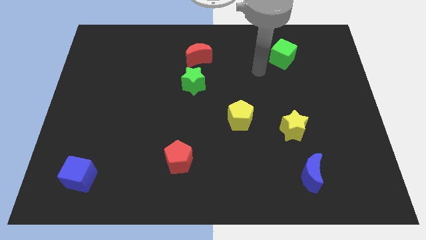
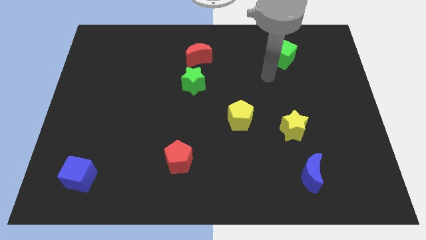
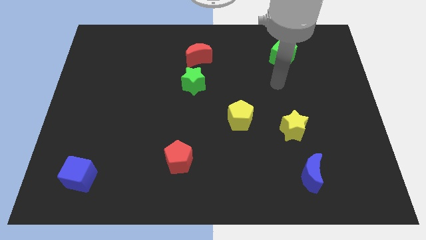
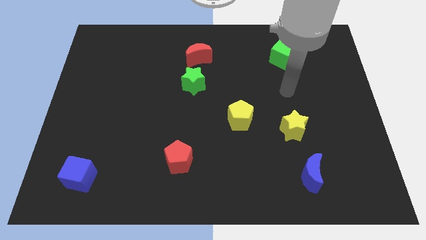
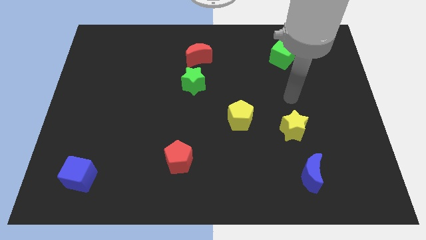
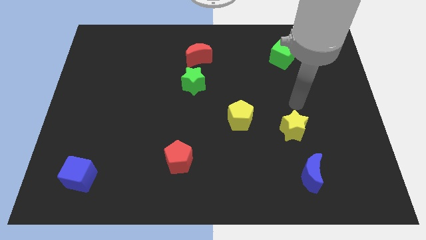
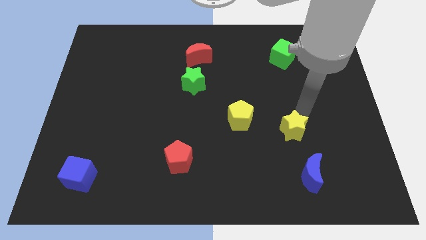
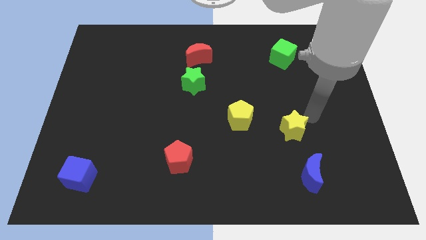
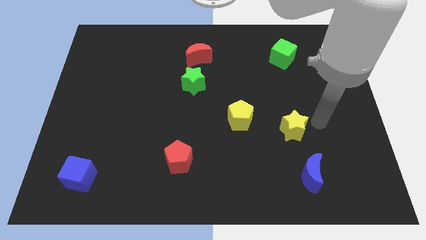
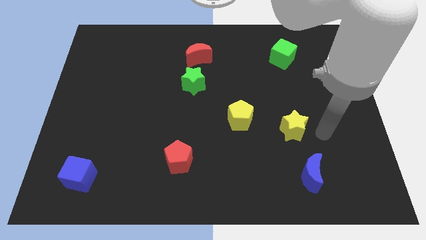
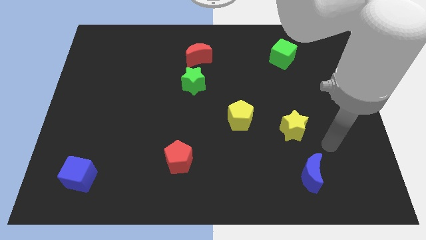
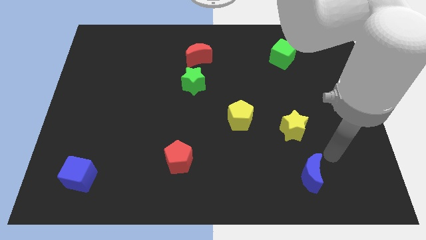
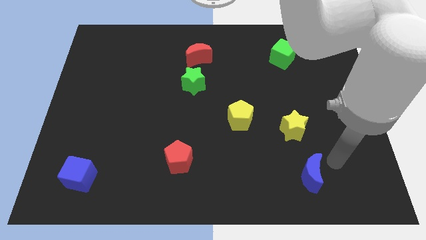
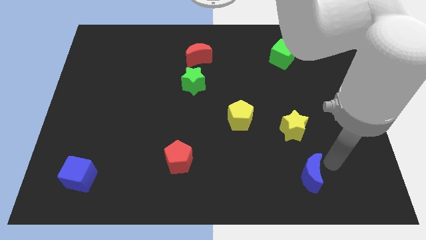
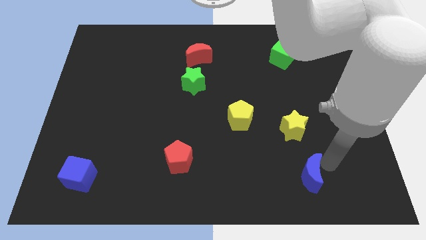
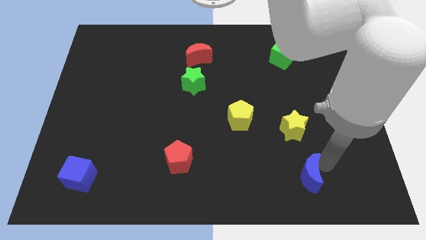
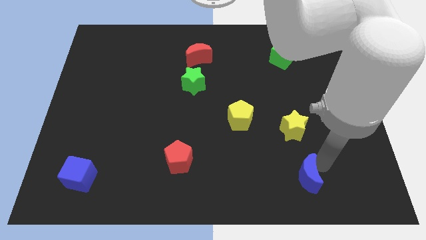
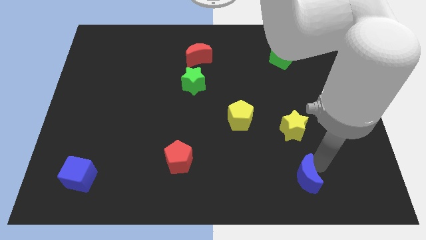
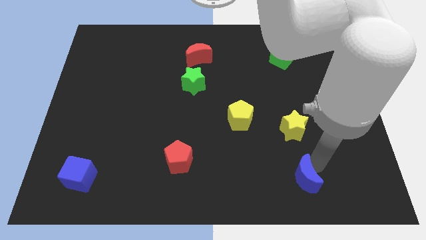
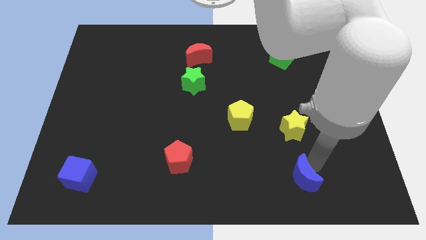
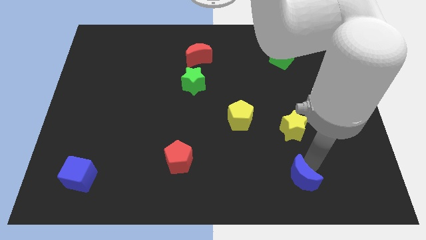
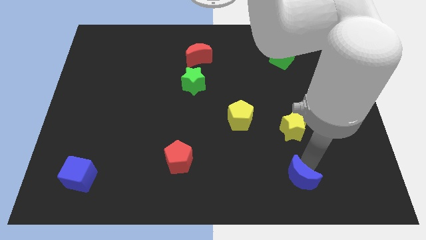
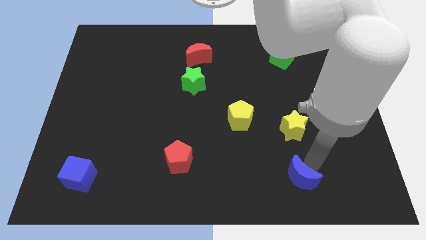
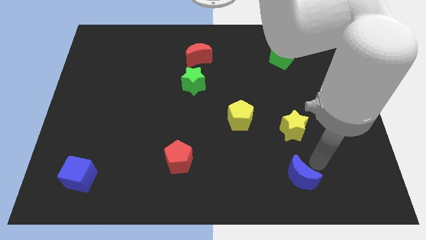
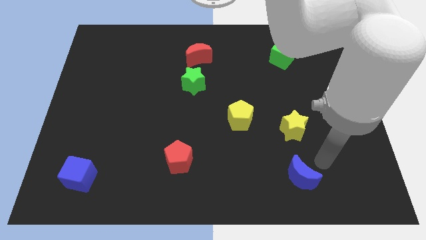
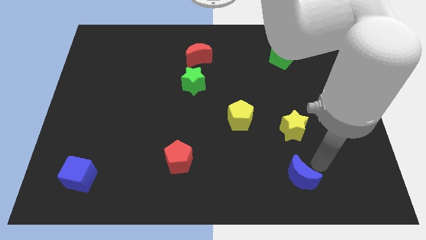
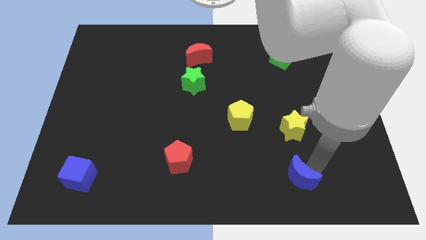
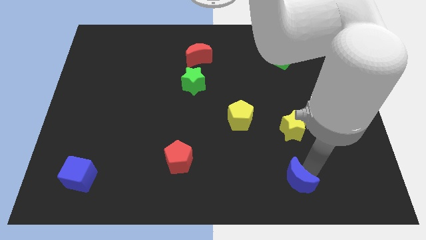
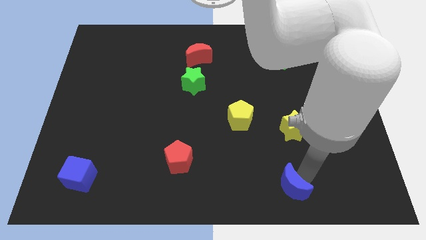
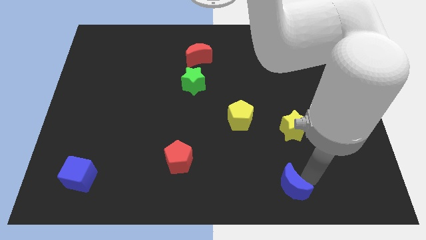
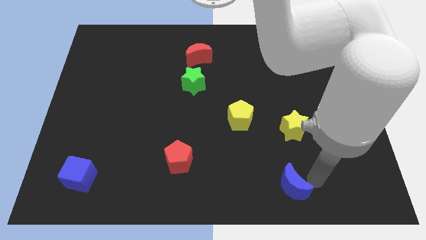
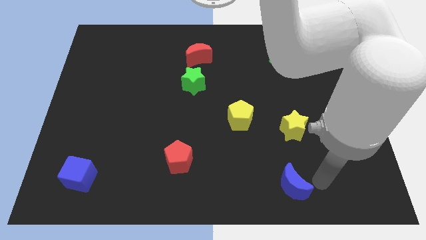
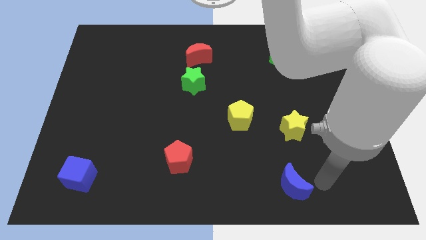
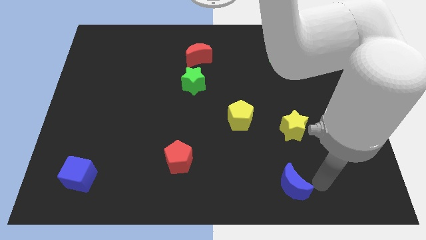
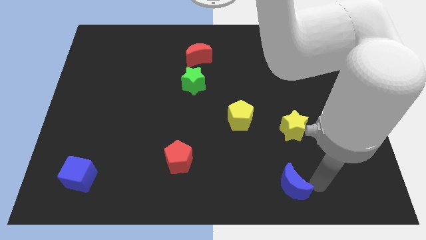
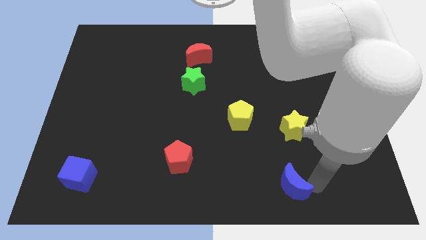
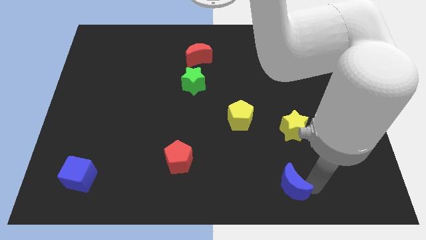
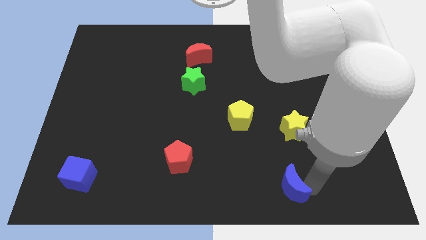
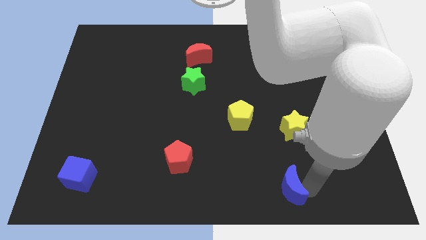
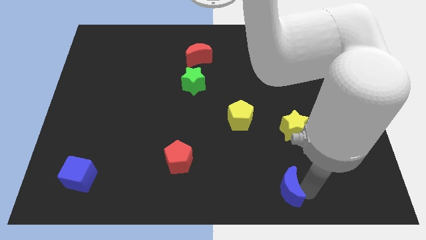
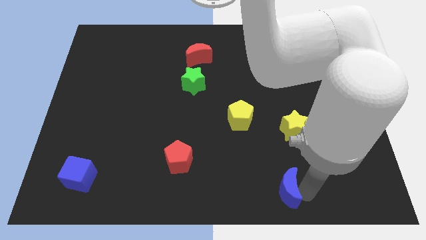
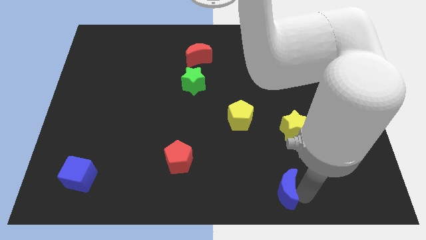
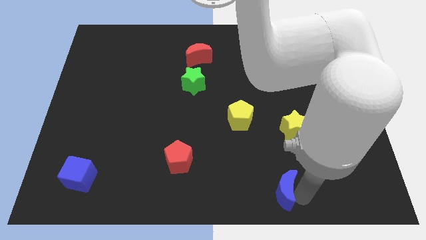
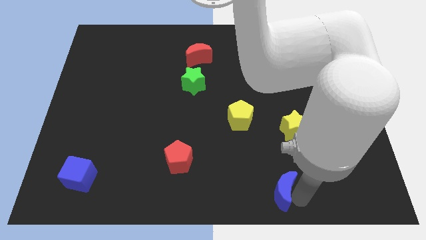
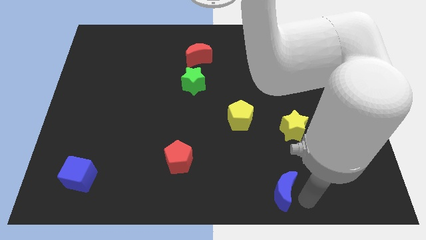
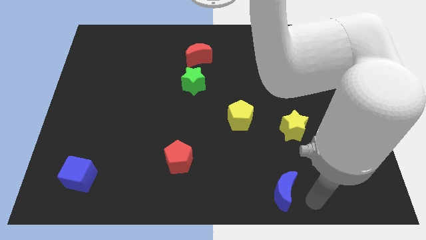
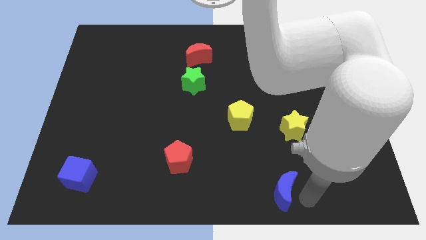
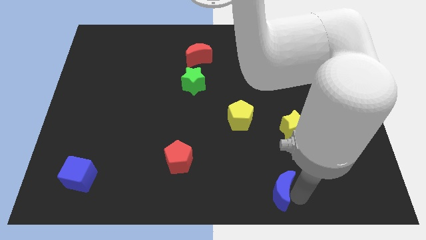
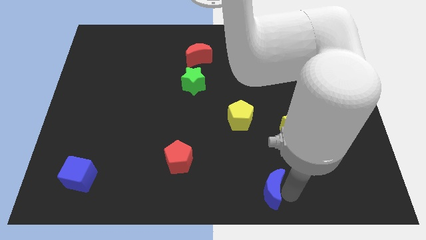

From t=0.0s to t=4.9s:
slide the blue moon left somewhat

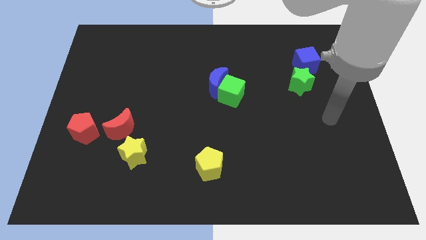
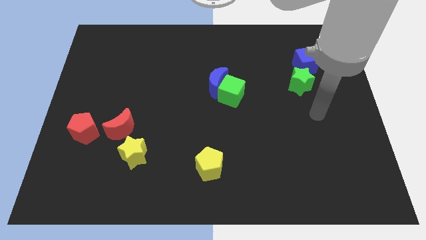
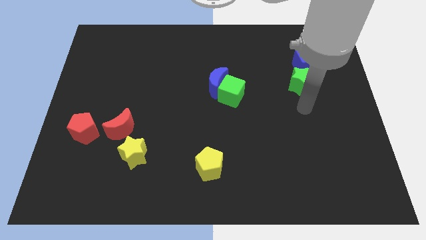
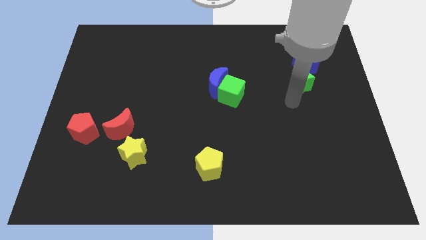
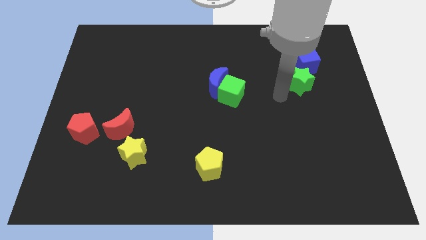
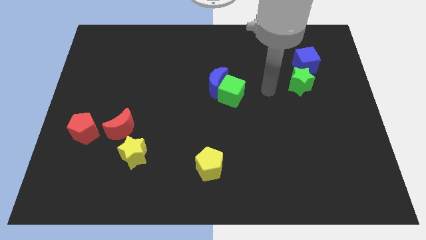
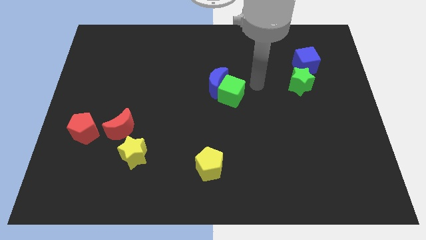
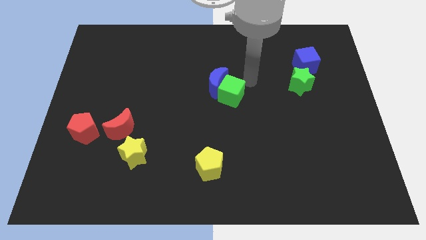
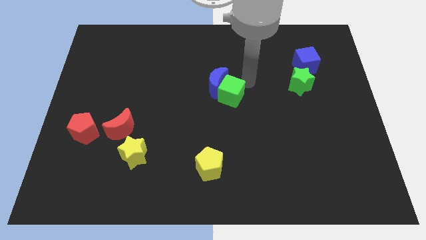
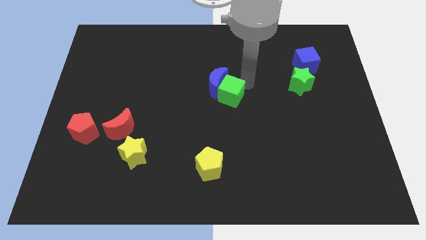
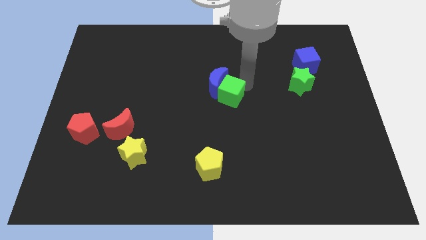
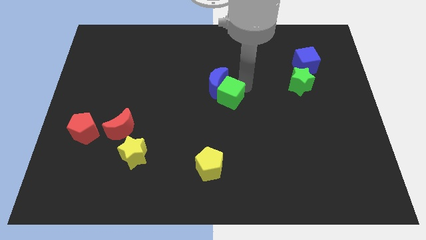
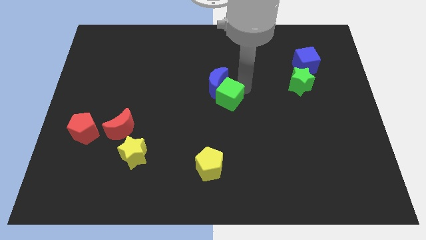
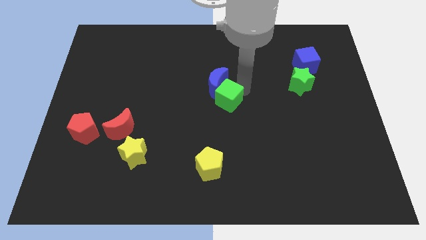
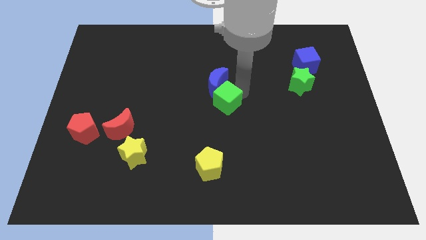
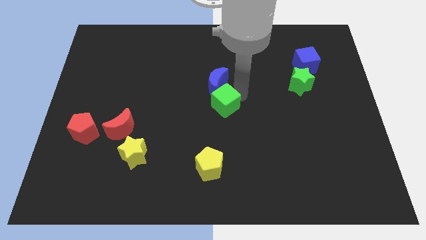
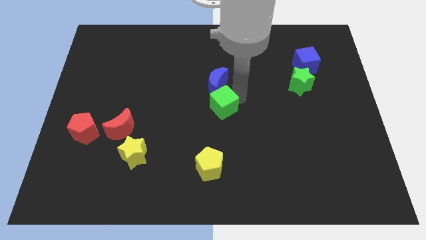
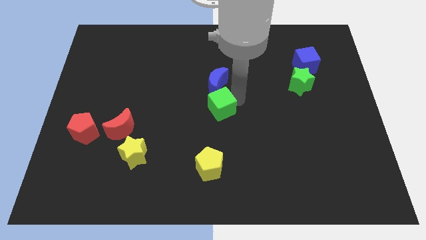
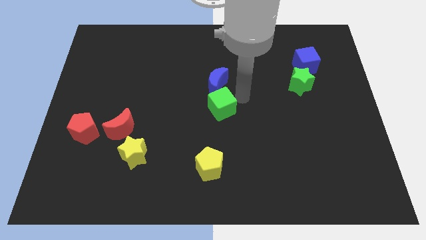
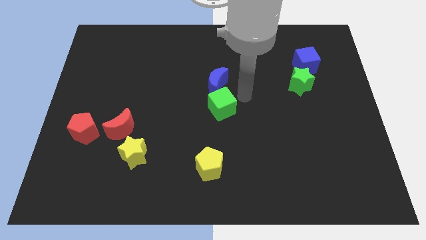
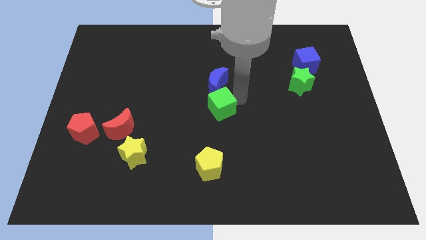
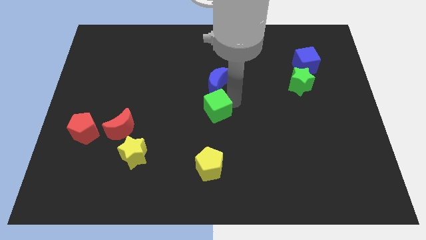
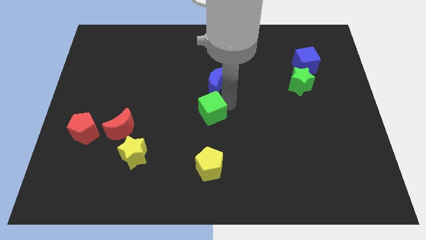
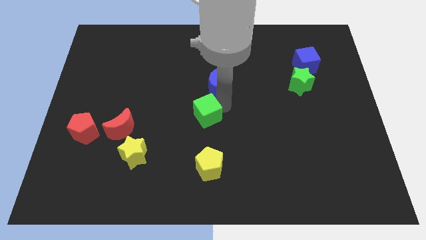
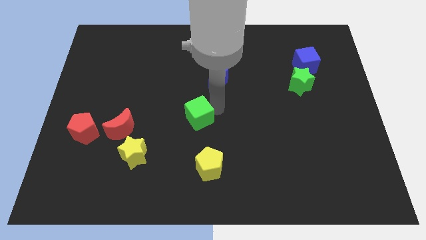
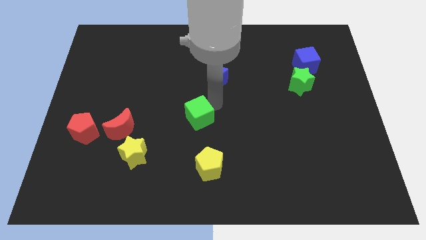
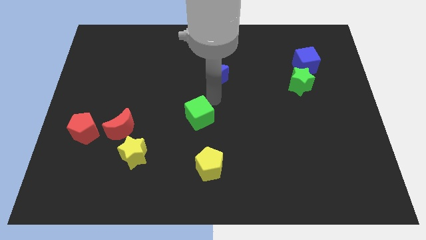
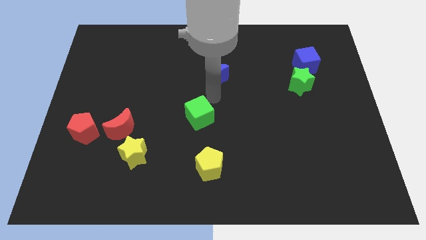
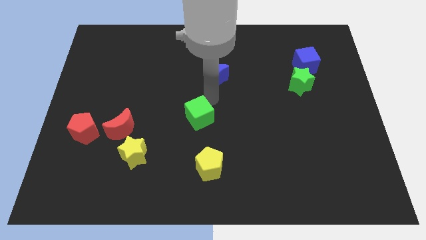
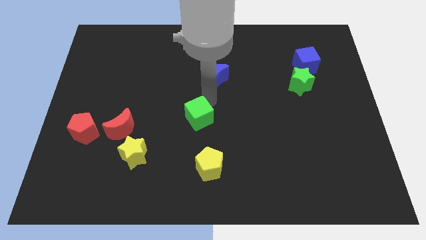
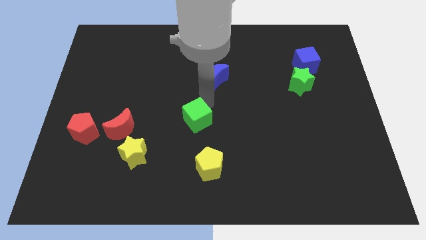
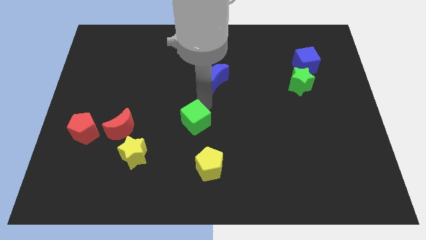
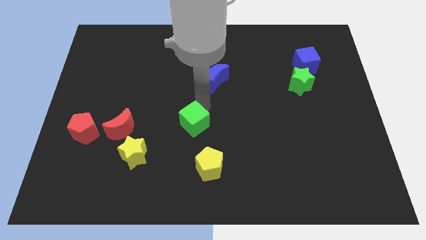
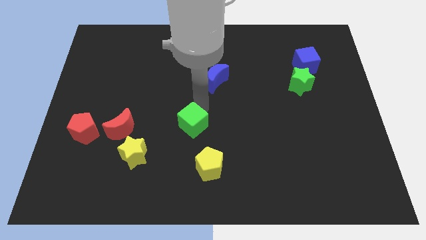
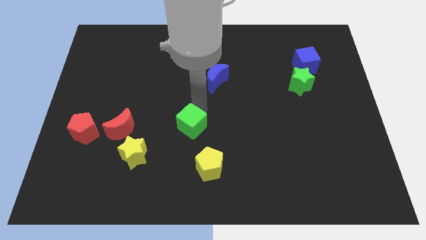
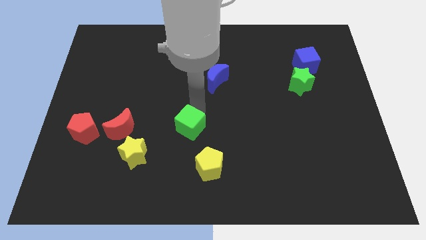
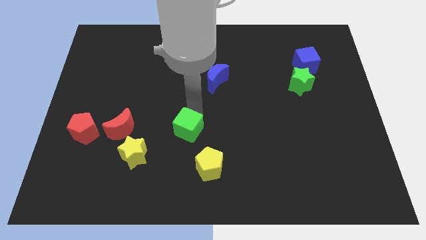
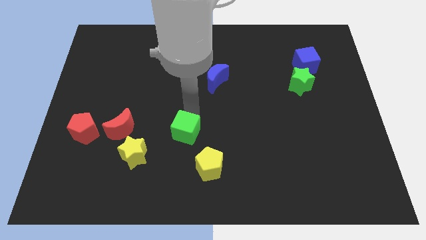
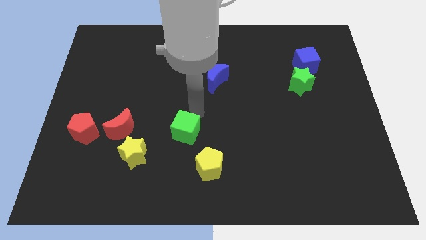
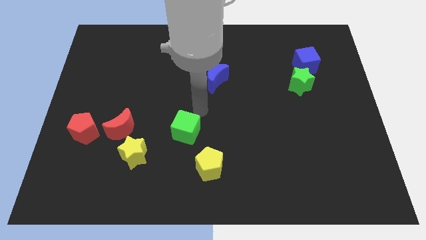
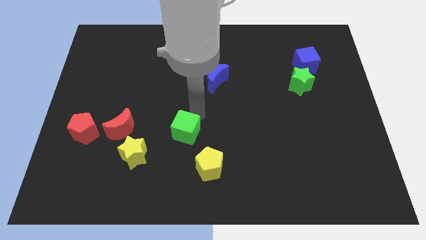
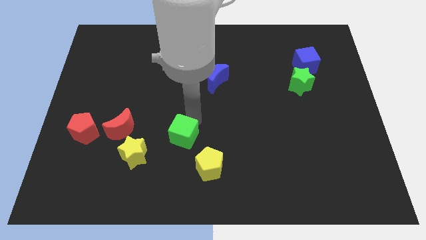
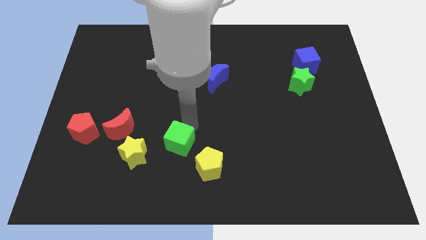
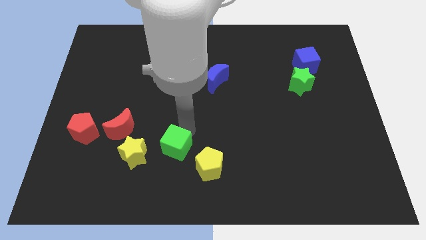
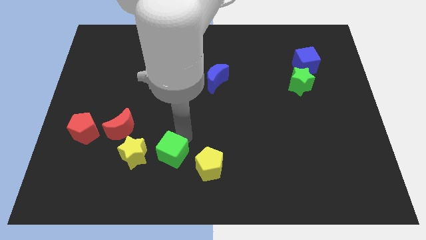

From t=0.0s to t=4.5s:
slide the green cube down and then left
